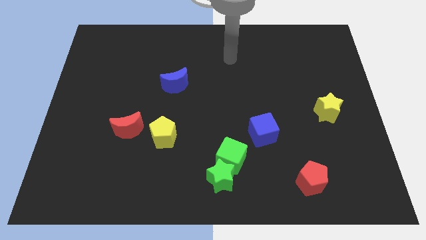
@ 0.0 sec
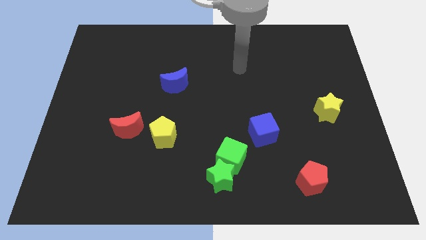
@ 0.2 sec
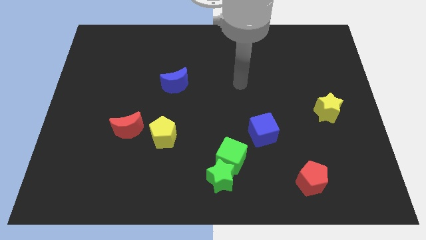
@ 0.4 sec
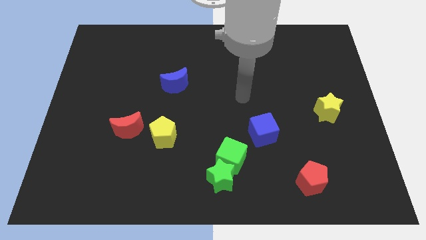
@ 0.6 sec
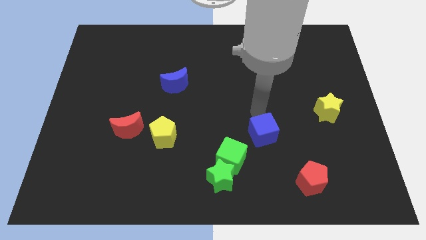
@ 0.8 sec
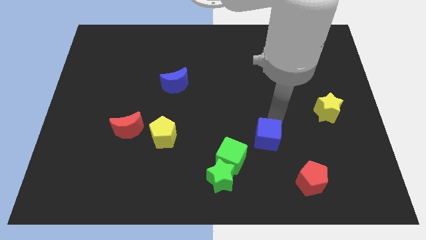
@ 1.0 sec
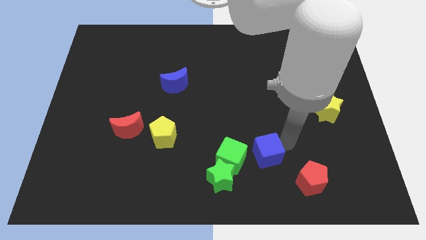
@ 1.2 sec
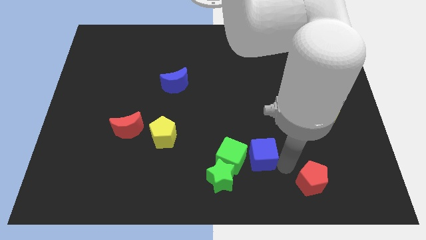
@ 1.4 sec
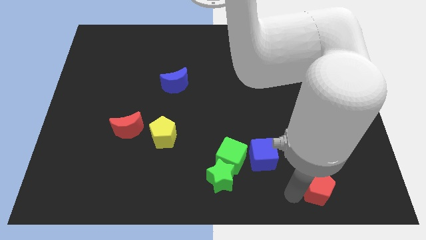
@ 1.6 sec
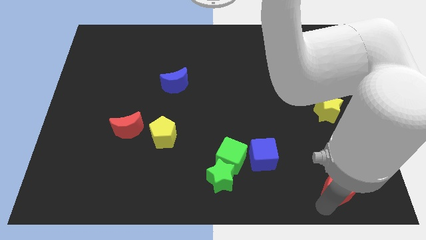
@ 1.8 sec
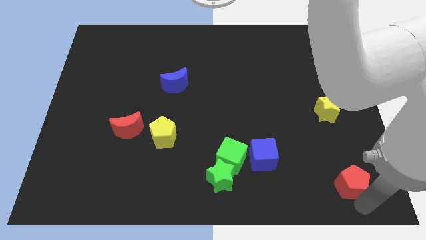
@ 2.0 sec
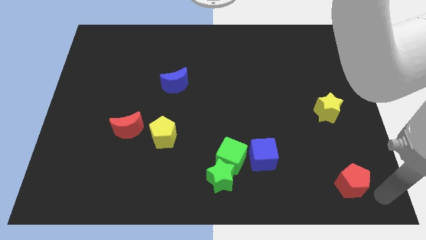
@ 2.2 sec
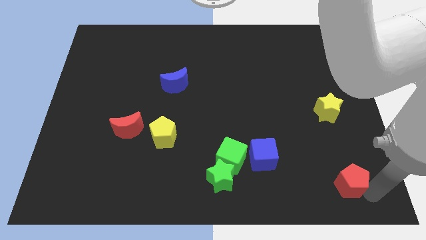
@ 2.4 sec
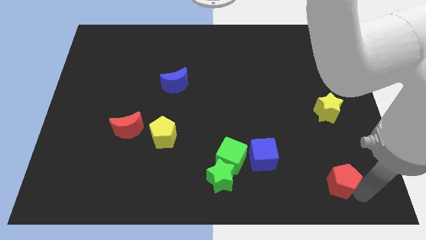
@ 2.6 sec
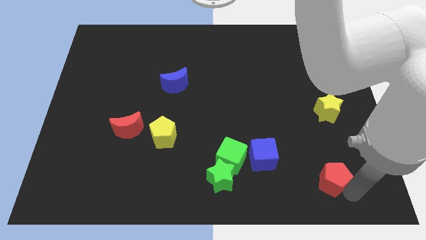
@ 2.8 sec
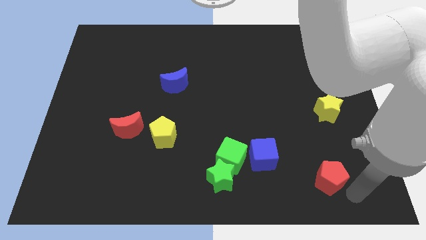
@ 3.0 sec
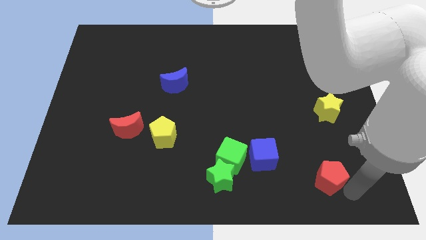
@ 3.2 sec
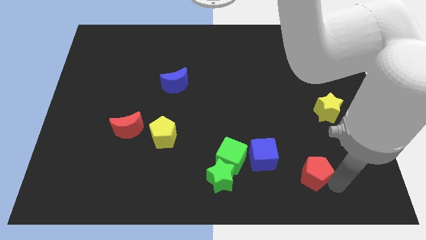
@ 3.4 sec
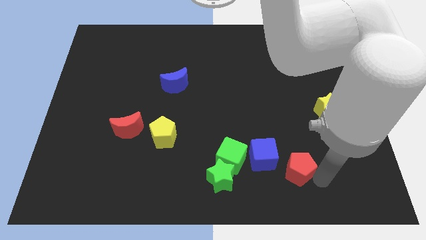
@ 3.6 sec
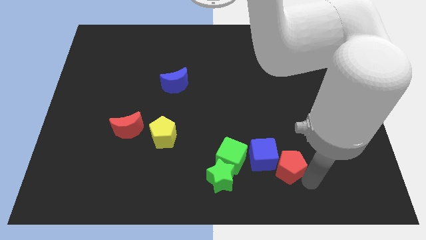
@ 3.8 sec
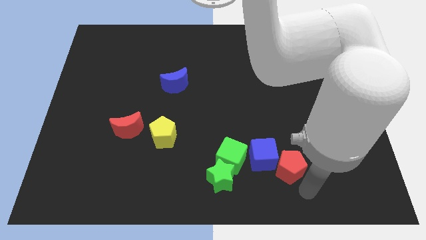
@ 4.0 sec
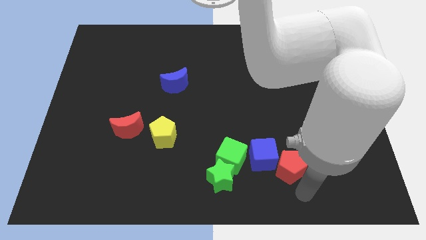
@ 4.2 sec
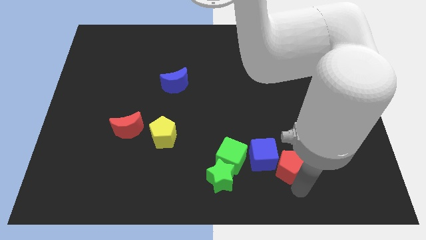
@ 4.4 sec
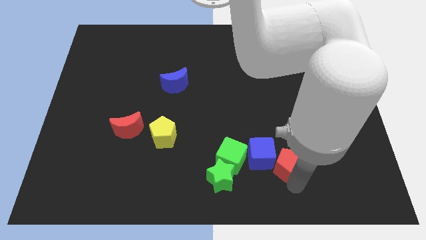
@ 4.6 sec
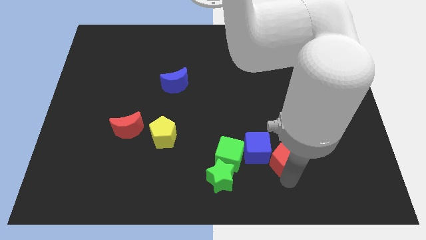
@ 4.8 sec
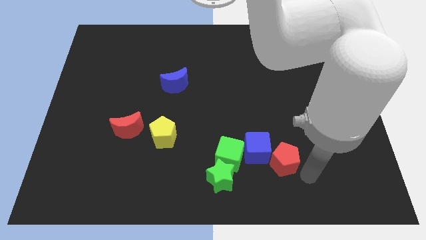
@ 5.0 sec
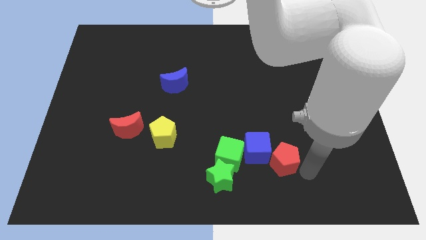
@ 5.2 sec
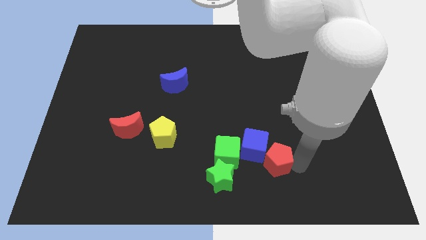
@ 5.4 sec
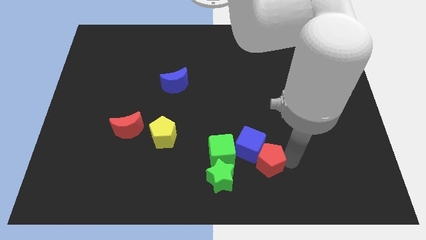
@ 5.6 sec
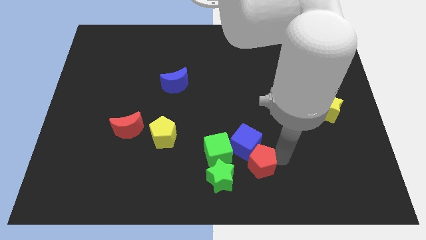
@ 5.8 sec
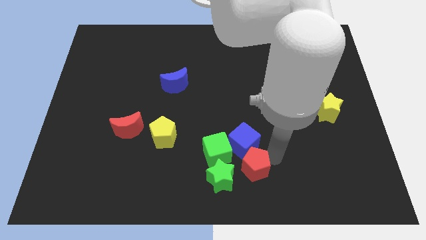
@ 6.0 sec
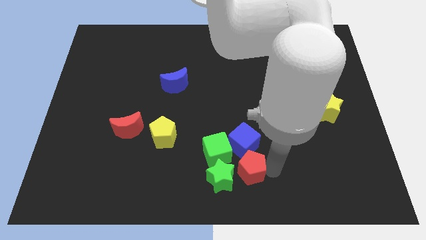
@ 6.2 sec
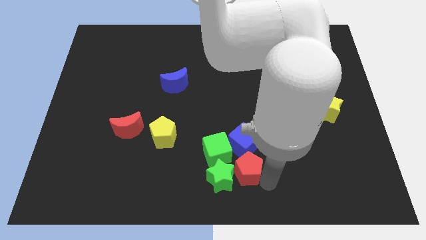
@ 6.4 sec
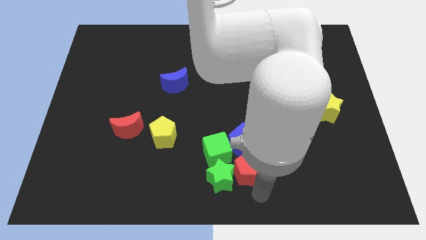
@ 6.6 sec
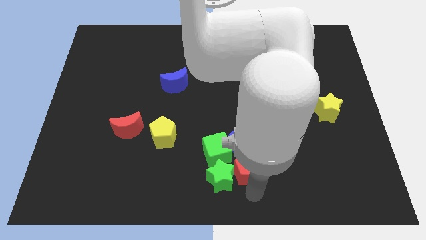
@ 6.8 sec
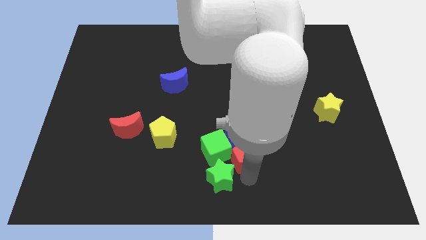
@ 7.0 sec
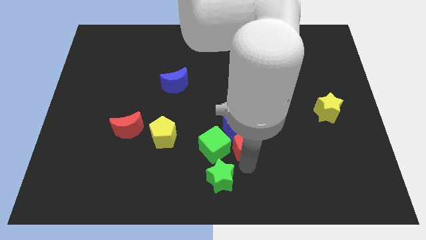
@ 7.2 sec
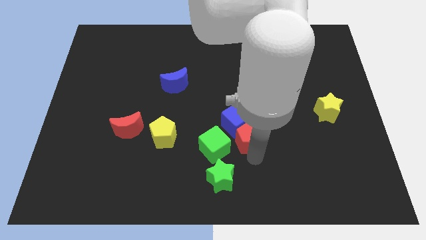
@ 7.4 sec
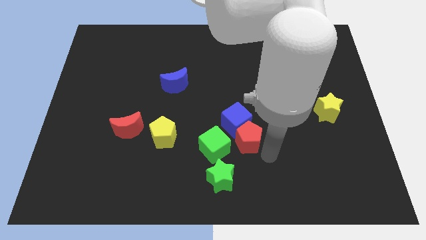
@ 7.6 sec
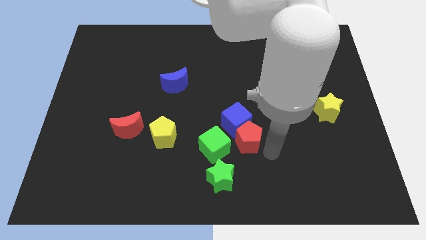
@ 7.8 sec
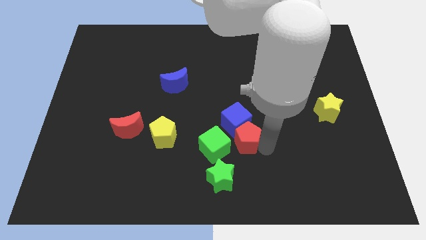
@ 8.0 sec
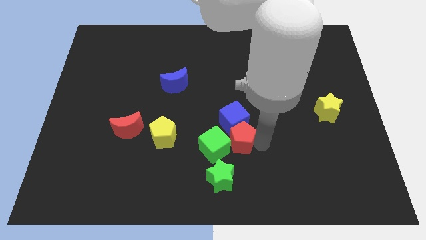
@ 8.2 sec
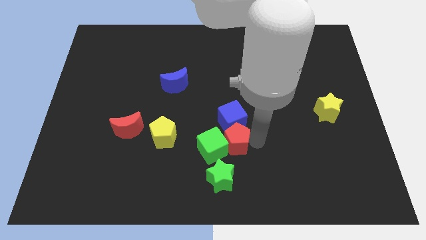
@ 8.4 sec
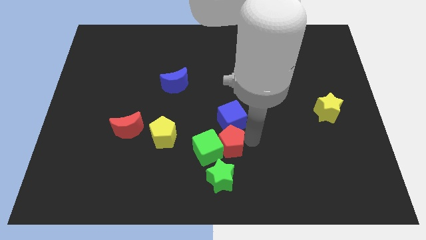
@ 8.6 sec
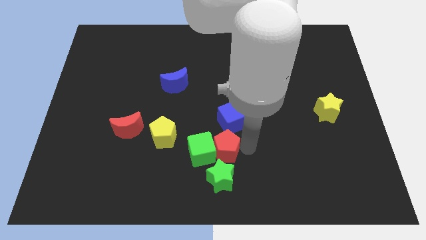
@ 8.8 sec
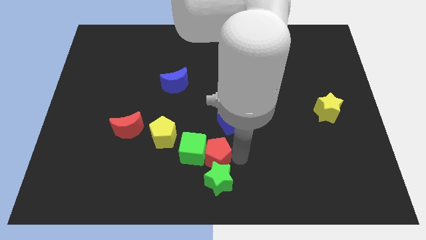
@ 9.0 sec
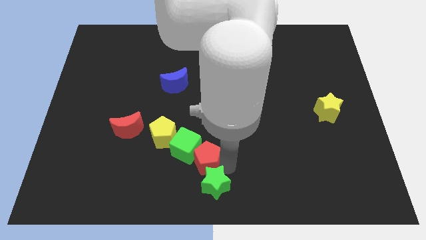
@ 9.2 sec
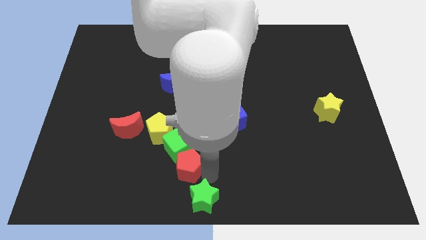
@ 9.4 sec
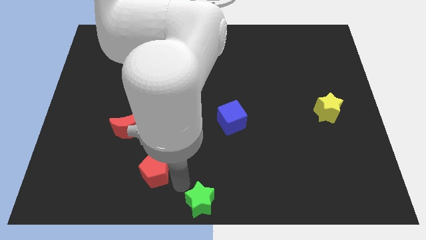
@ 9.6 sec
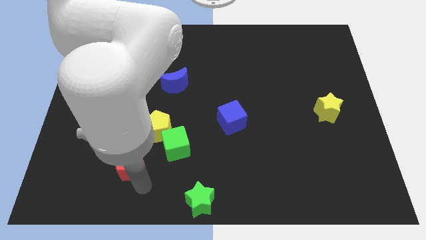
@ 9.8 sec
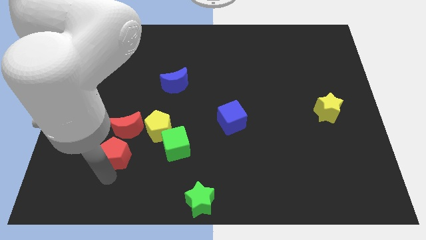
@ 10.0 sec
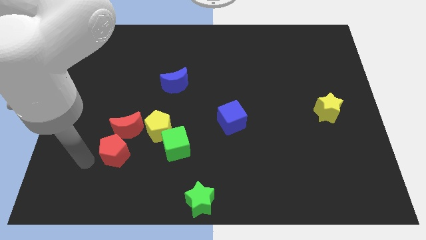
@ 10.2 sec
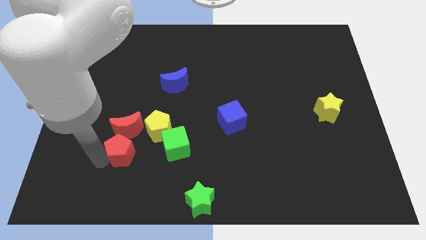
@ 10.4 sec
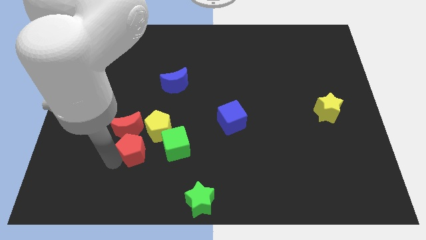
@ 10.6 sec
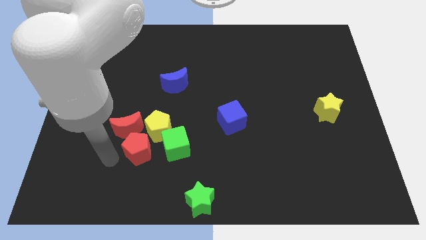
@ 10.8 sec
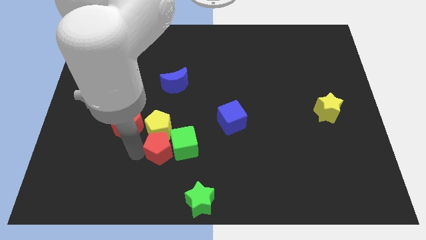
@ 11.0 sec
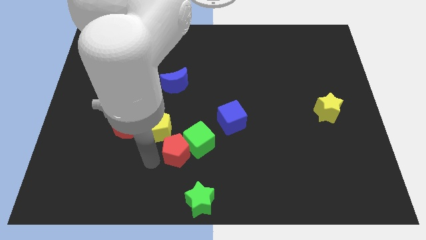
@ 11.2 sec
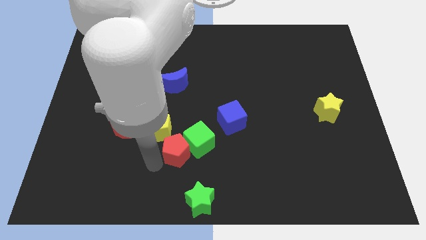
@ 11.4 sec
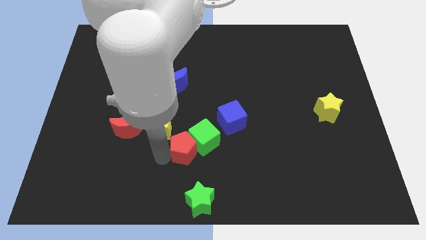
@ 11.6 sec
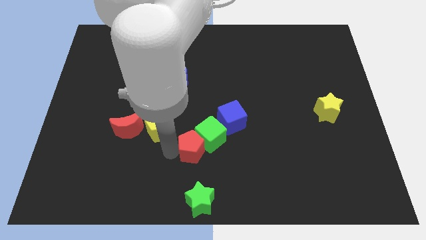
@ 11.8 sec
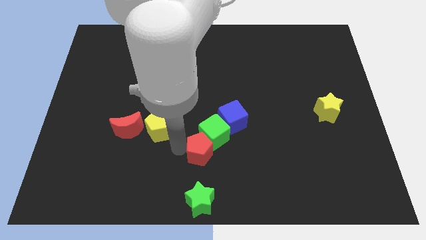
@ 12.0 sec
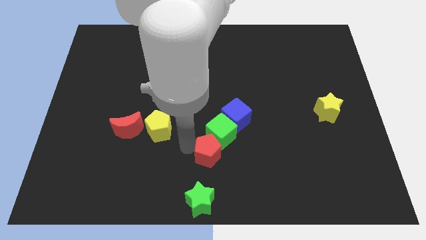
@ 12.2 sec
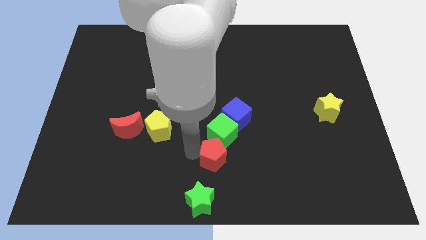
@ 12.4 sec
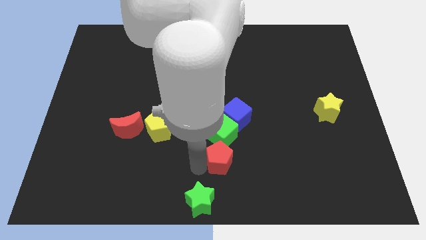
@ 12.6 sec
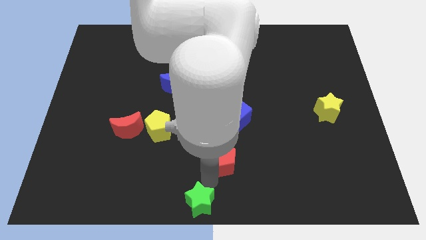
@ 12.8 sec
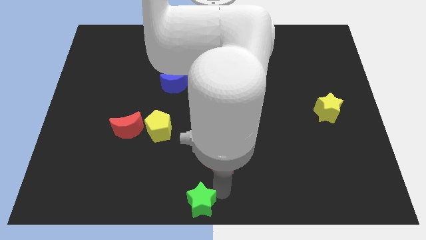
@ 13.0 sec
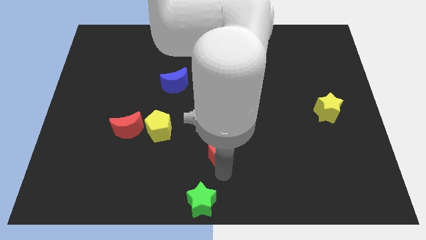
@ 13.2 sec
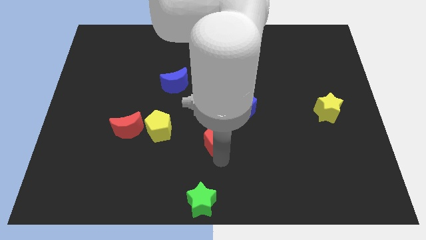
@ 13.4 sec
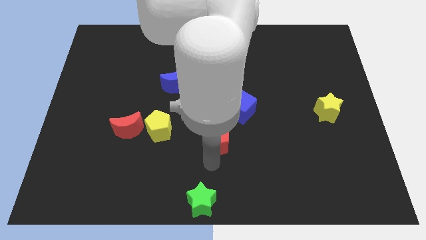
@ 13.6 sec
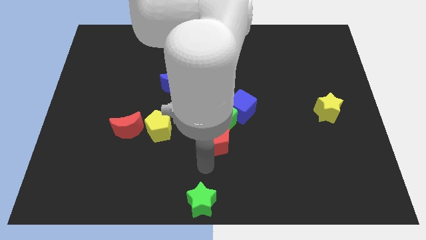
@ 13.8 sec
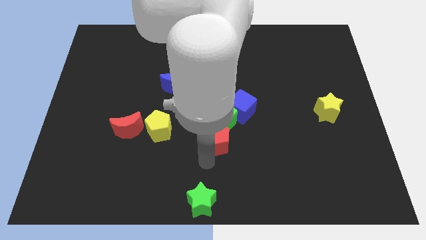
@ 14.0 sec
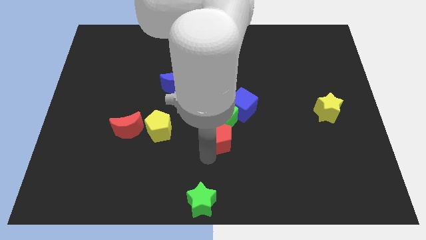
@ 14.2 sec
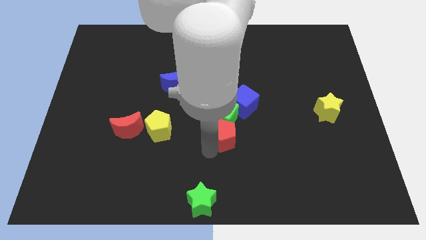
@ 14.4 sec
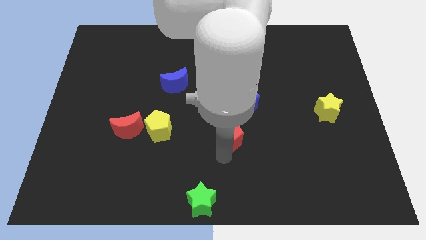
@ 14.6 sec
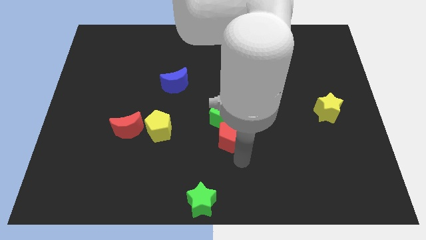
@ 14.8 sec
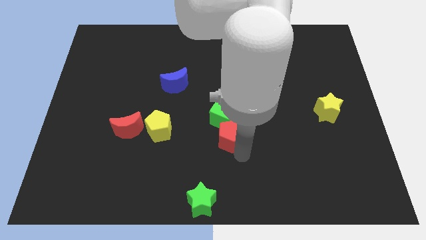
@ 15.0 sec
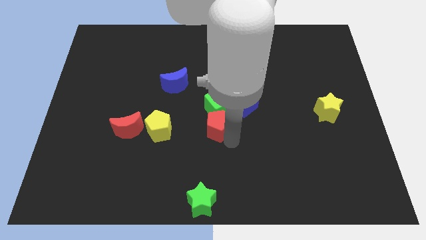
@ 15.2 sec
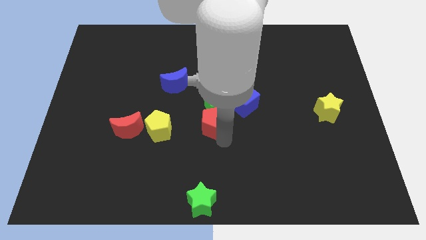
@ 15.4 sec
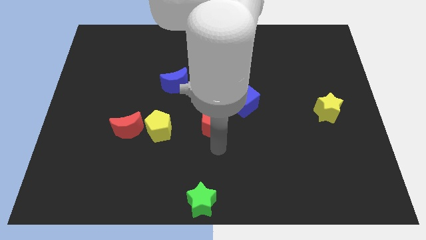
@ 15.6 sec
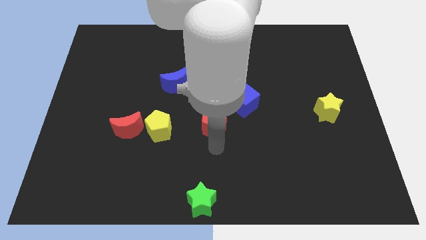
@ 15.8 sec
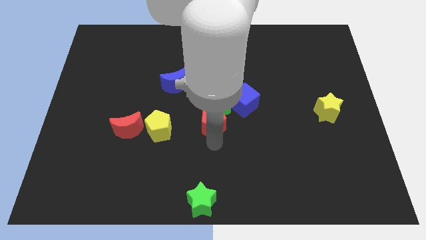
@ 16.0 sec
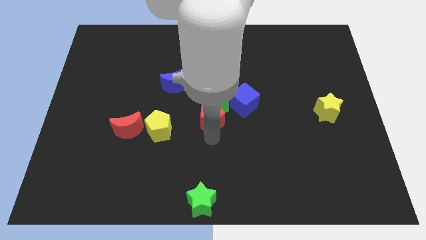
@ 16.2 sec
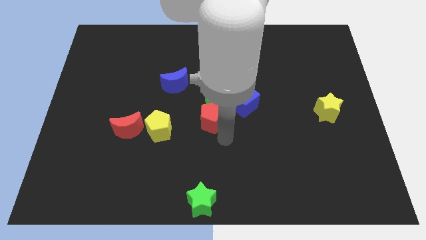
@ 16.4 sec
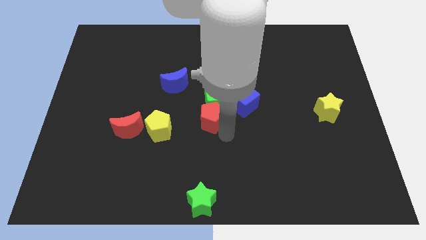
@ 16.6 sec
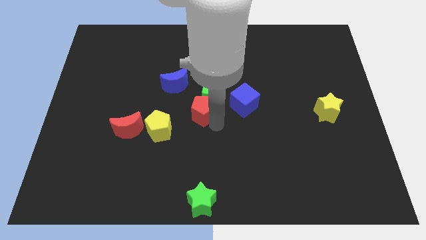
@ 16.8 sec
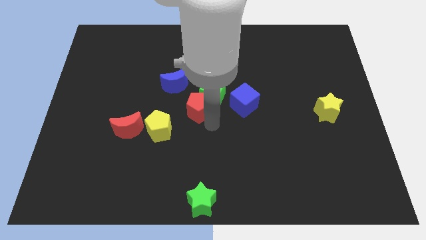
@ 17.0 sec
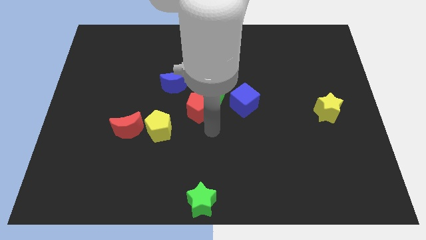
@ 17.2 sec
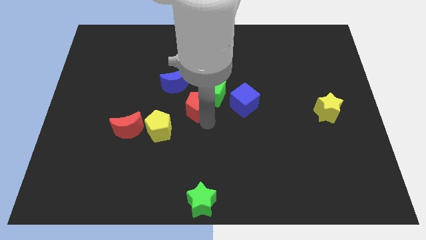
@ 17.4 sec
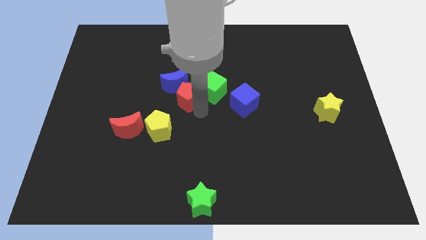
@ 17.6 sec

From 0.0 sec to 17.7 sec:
push the red pentagon to the blue moon
